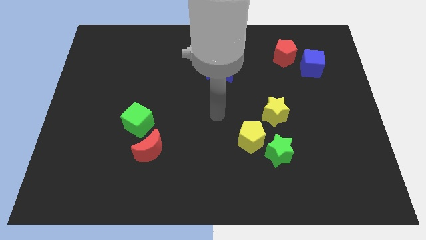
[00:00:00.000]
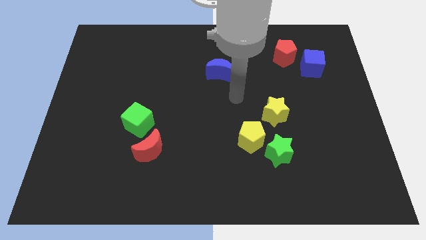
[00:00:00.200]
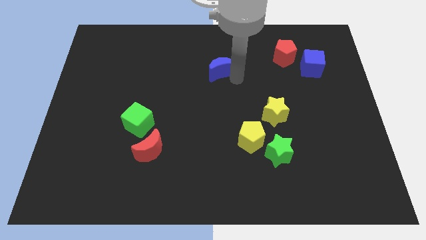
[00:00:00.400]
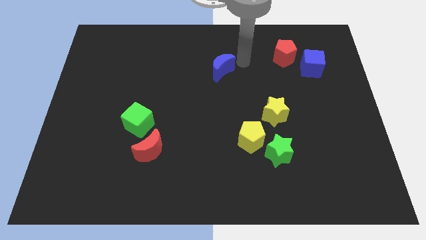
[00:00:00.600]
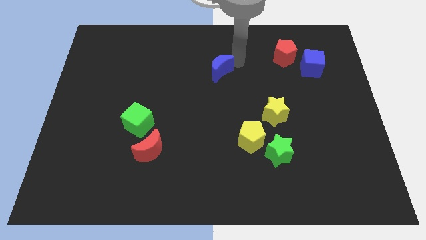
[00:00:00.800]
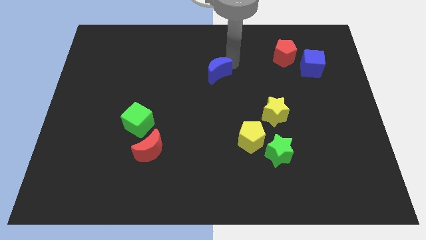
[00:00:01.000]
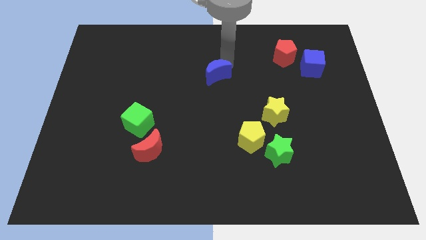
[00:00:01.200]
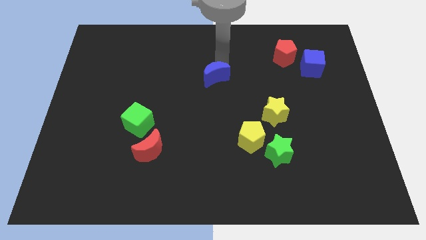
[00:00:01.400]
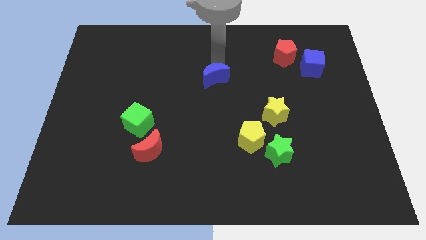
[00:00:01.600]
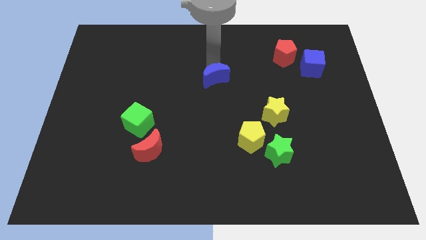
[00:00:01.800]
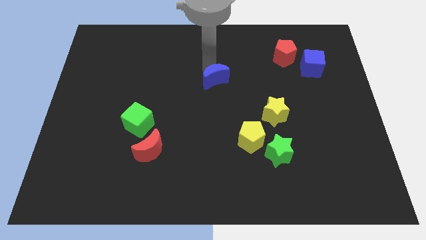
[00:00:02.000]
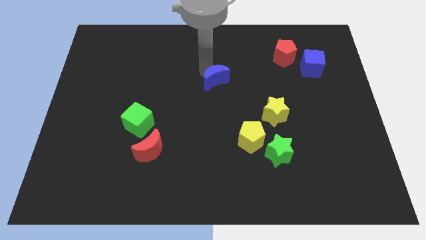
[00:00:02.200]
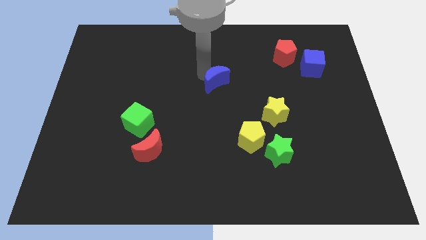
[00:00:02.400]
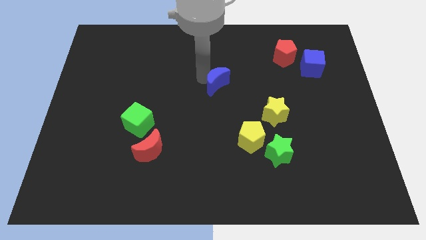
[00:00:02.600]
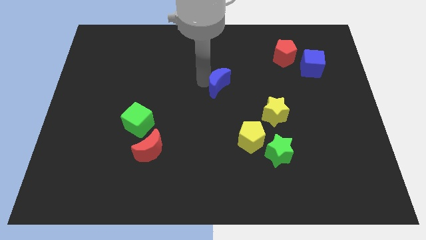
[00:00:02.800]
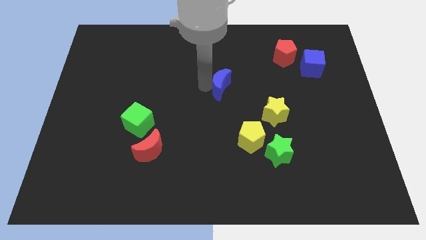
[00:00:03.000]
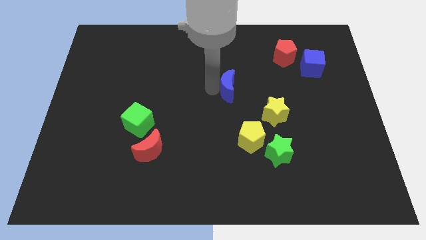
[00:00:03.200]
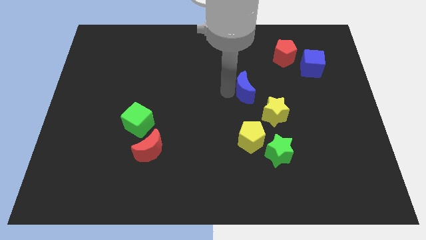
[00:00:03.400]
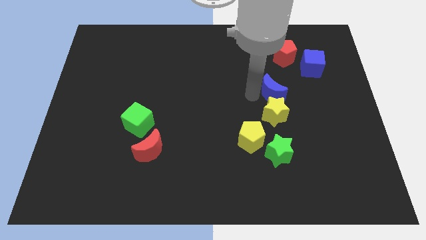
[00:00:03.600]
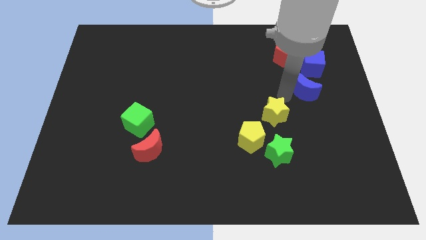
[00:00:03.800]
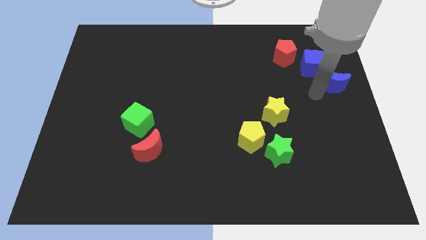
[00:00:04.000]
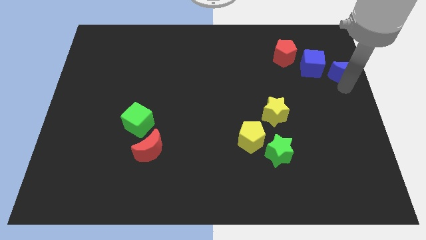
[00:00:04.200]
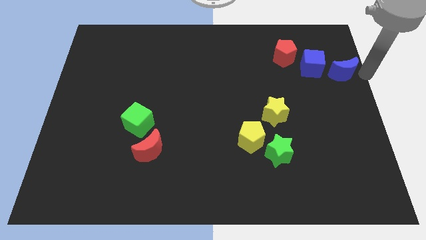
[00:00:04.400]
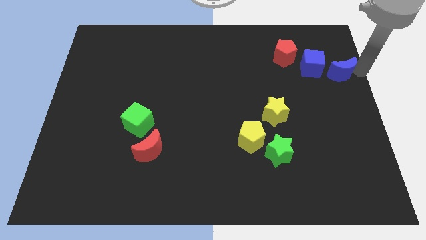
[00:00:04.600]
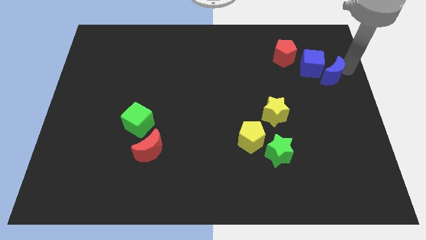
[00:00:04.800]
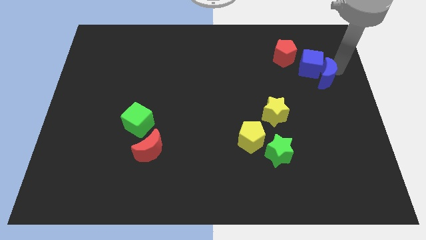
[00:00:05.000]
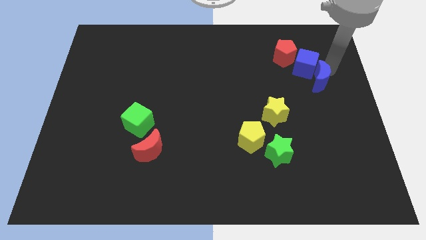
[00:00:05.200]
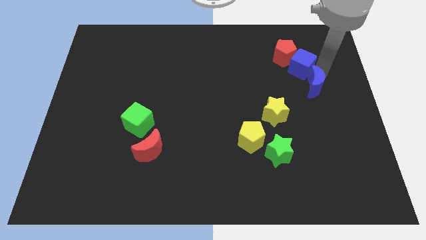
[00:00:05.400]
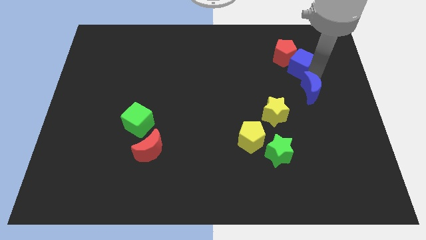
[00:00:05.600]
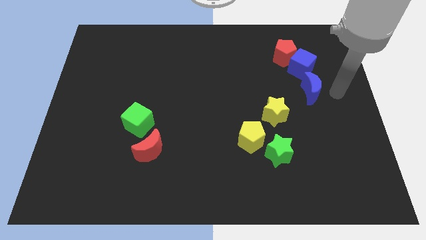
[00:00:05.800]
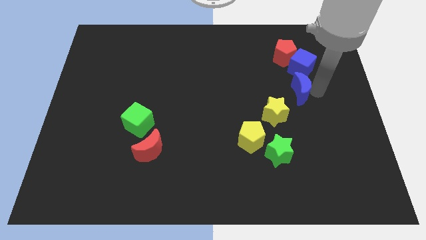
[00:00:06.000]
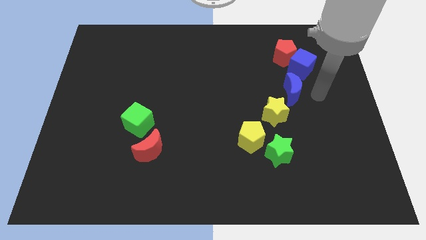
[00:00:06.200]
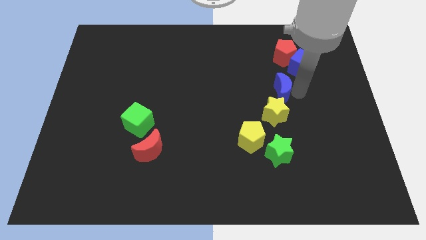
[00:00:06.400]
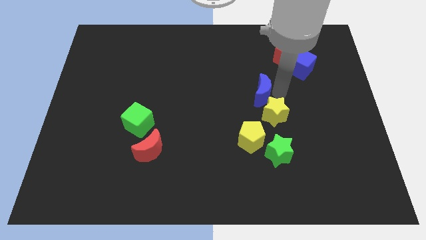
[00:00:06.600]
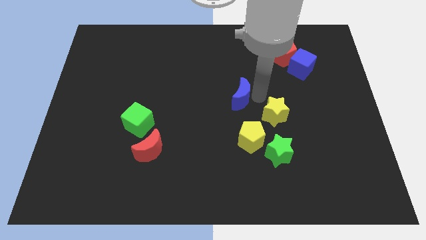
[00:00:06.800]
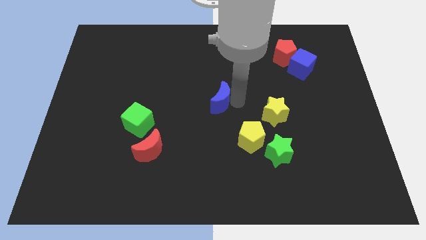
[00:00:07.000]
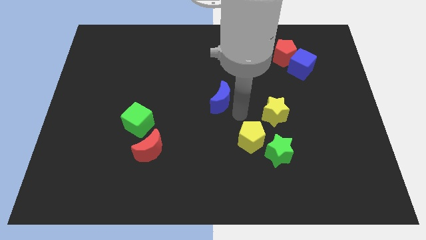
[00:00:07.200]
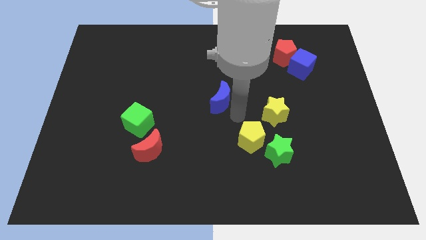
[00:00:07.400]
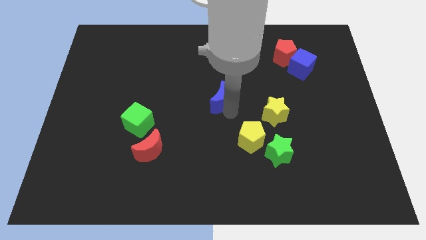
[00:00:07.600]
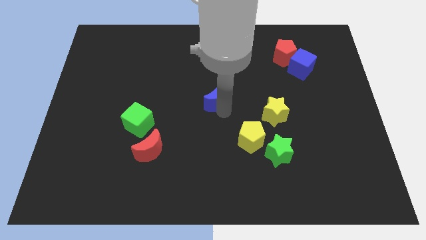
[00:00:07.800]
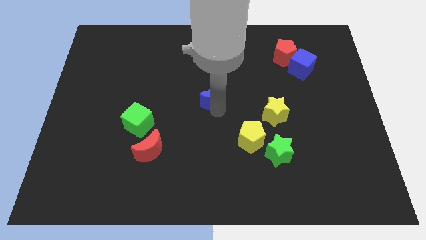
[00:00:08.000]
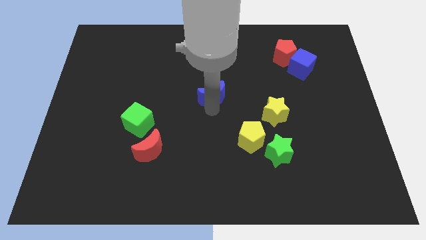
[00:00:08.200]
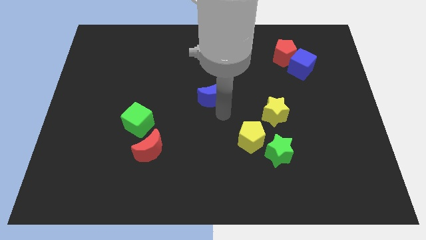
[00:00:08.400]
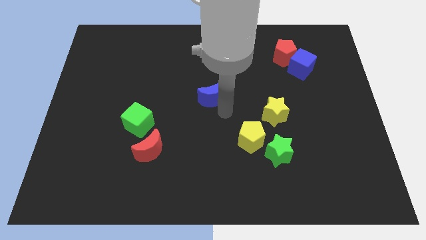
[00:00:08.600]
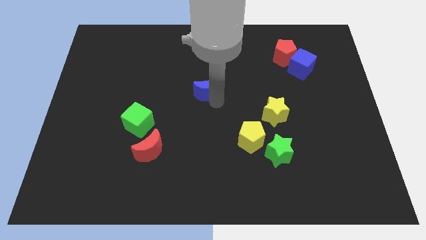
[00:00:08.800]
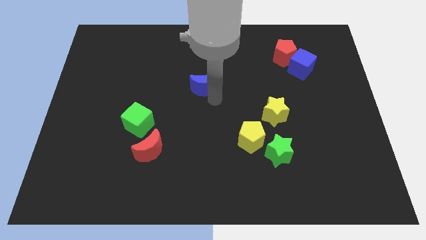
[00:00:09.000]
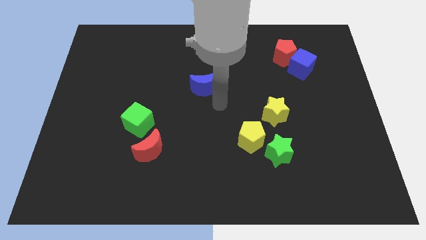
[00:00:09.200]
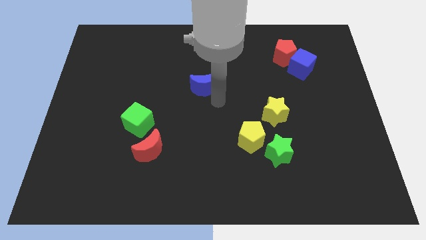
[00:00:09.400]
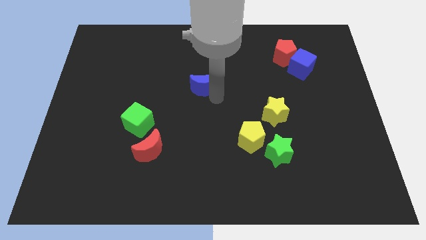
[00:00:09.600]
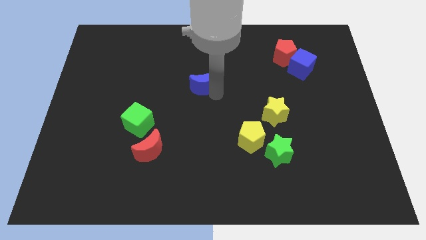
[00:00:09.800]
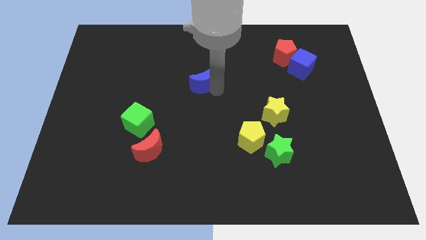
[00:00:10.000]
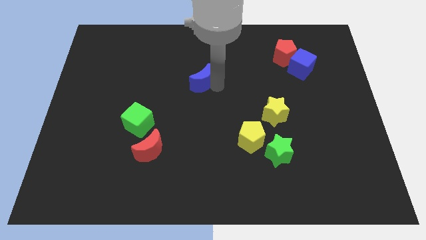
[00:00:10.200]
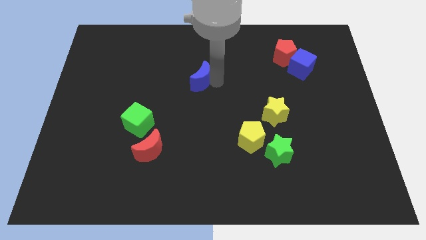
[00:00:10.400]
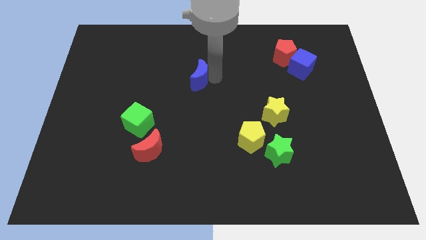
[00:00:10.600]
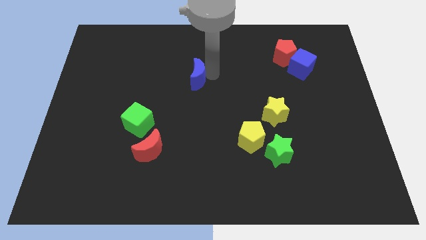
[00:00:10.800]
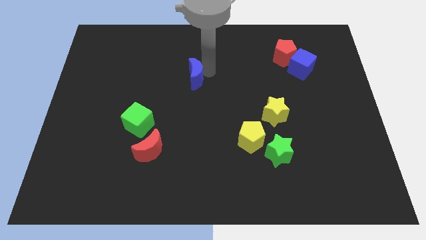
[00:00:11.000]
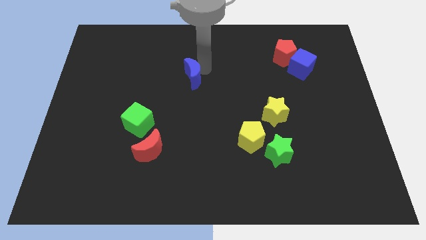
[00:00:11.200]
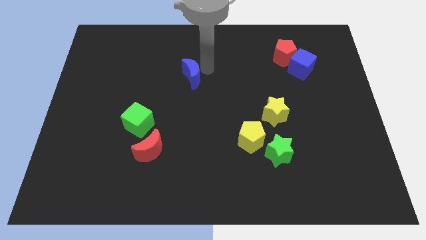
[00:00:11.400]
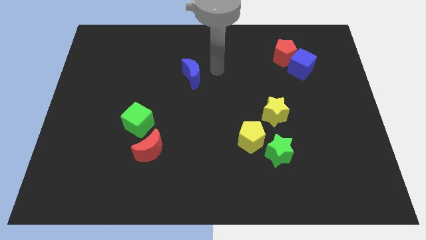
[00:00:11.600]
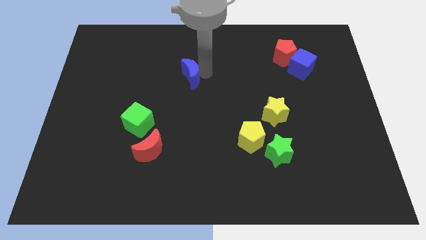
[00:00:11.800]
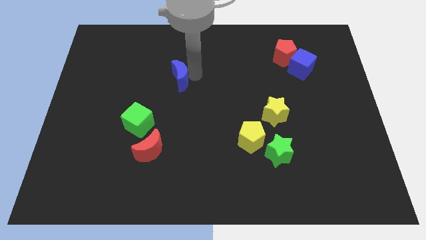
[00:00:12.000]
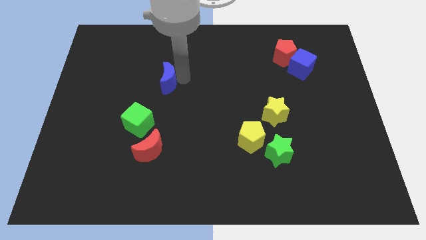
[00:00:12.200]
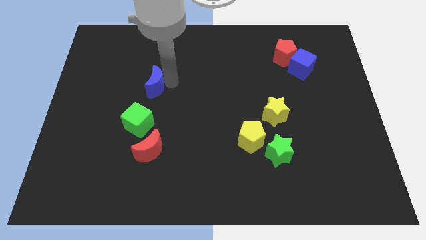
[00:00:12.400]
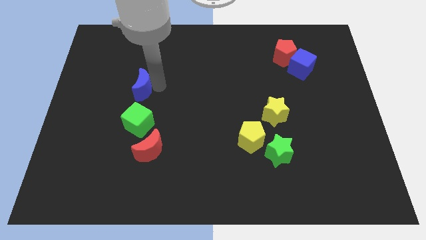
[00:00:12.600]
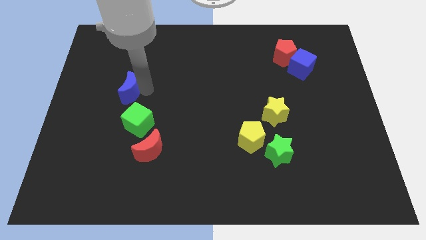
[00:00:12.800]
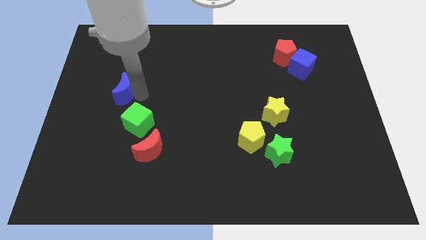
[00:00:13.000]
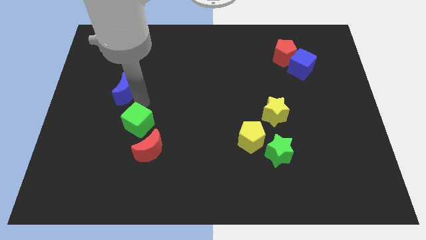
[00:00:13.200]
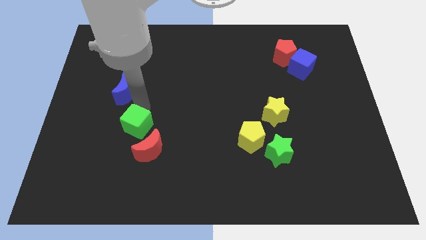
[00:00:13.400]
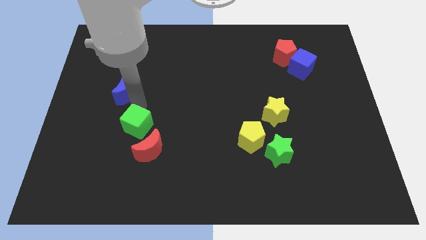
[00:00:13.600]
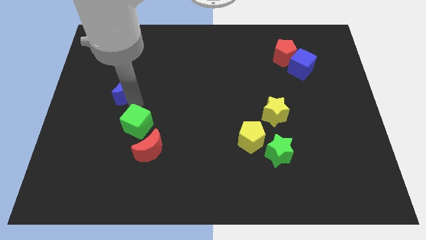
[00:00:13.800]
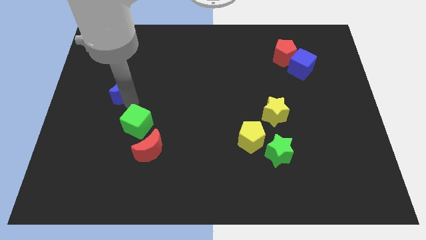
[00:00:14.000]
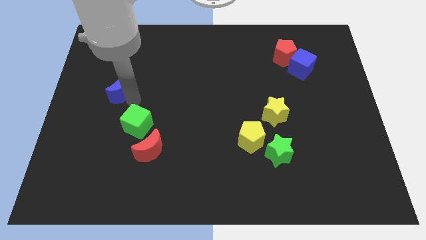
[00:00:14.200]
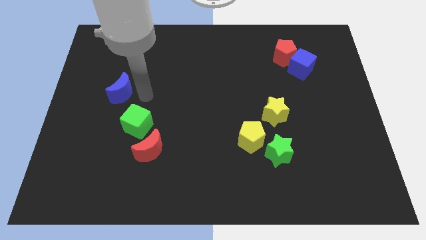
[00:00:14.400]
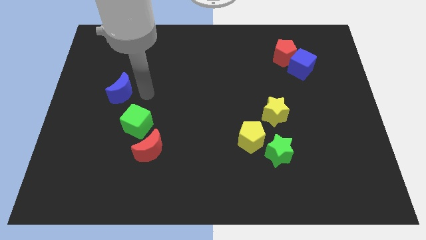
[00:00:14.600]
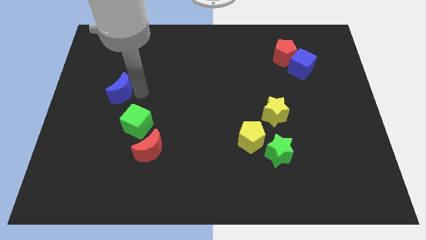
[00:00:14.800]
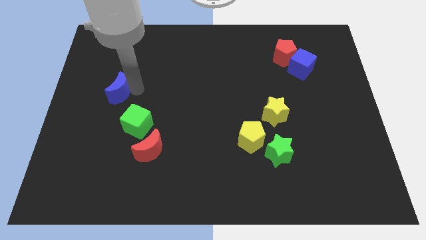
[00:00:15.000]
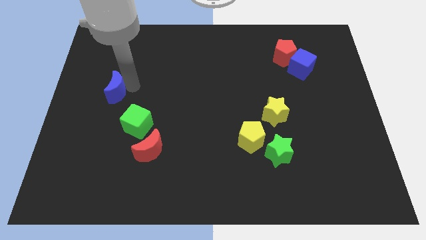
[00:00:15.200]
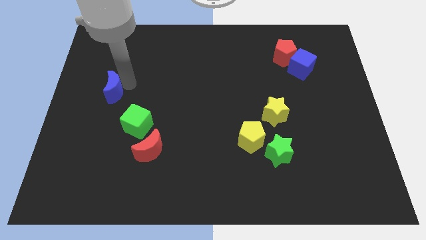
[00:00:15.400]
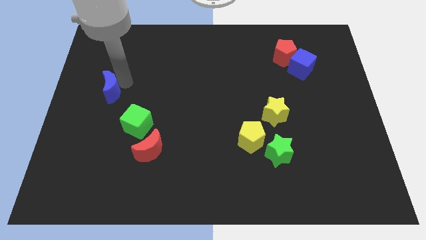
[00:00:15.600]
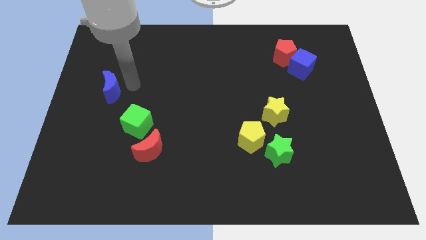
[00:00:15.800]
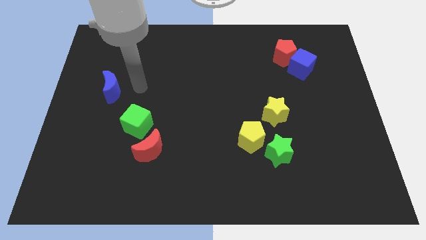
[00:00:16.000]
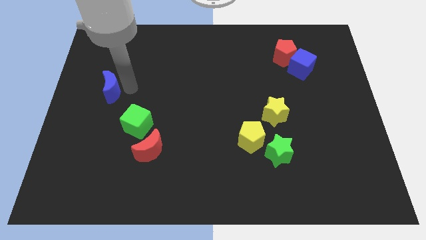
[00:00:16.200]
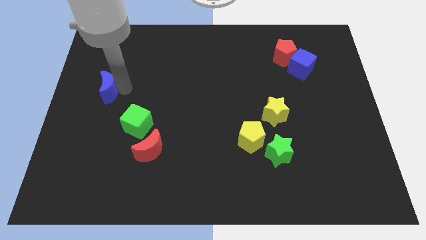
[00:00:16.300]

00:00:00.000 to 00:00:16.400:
slide the blue moon to the center left
